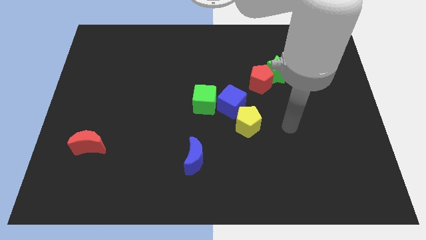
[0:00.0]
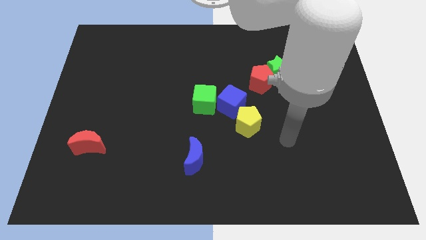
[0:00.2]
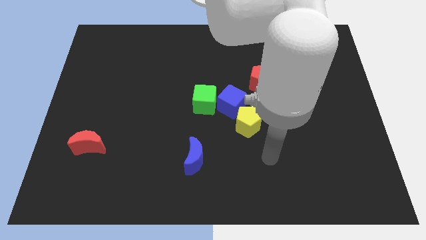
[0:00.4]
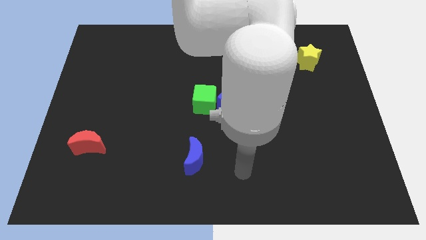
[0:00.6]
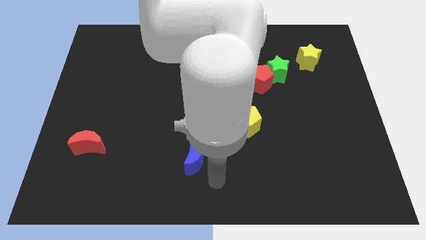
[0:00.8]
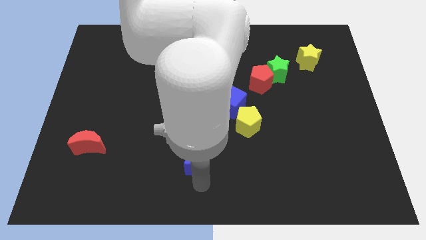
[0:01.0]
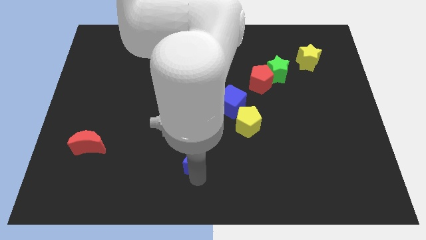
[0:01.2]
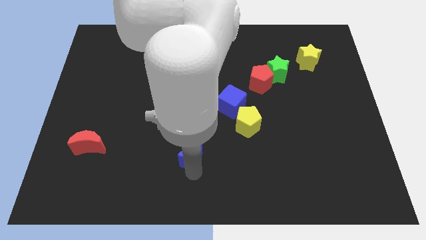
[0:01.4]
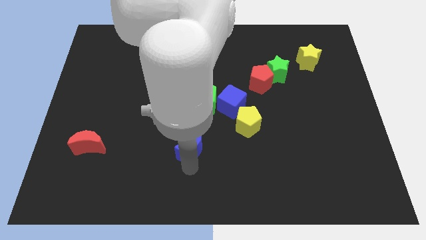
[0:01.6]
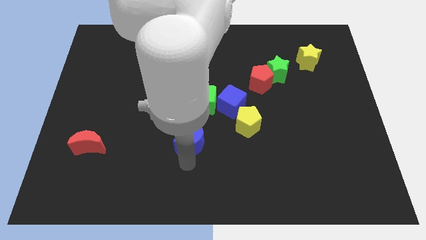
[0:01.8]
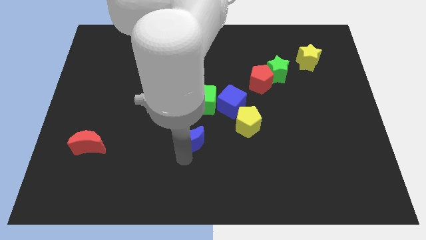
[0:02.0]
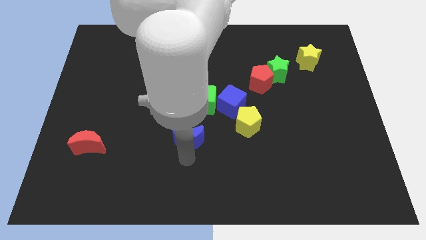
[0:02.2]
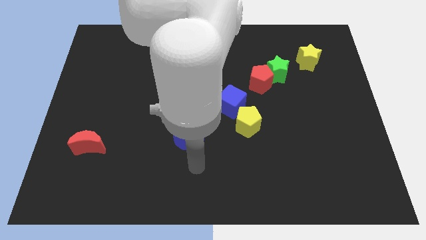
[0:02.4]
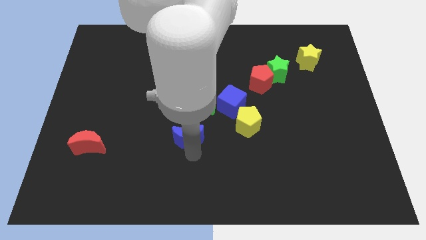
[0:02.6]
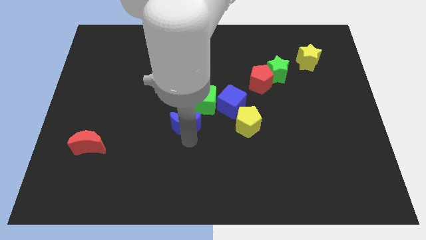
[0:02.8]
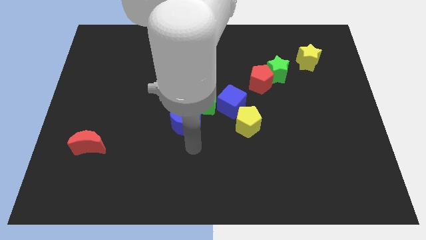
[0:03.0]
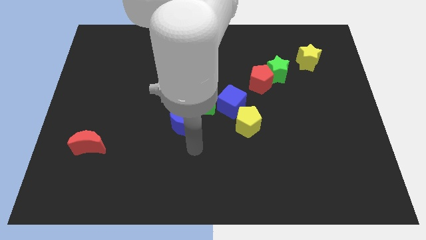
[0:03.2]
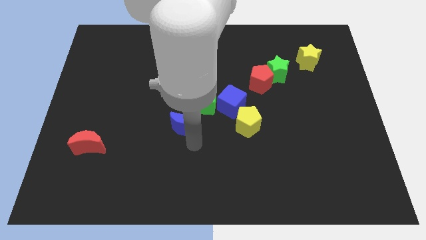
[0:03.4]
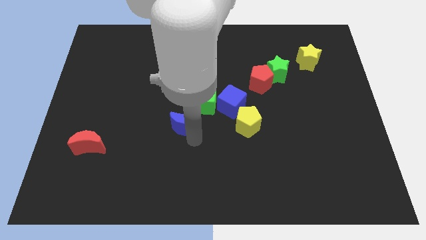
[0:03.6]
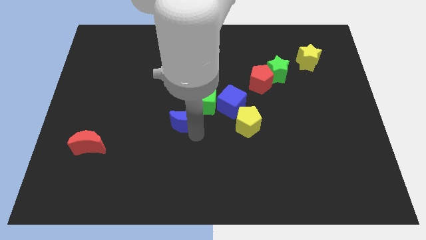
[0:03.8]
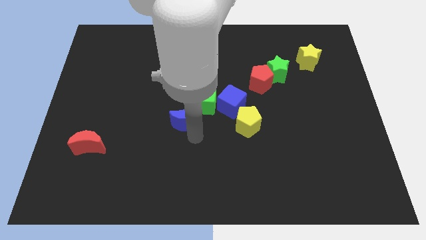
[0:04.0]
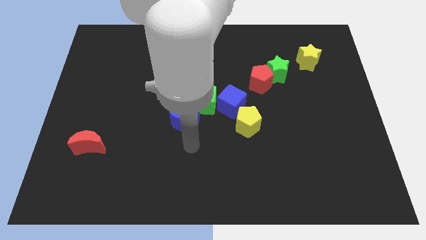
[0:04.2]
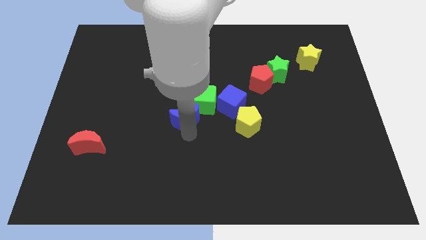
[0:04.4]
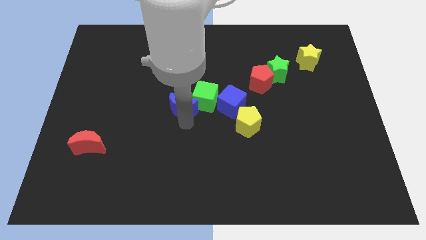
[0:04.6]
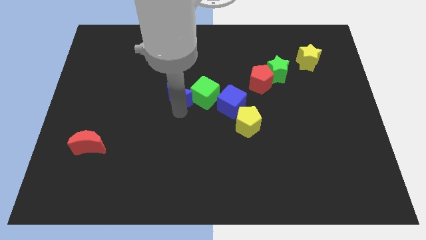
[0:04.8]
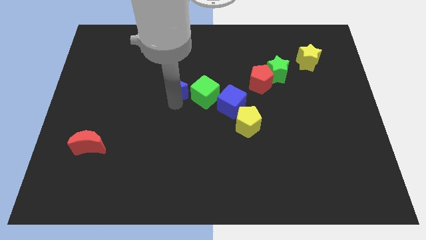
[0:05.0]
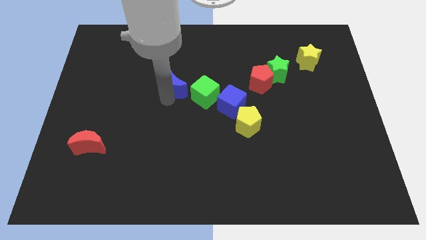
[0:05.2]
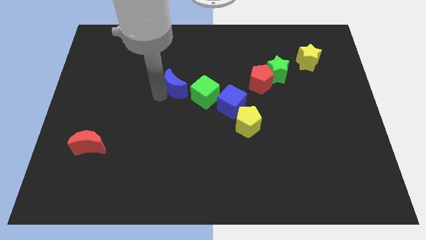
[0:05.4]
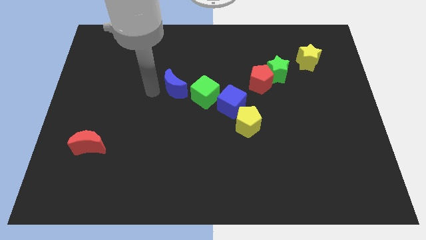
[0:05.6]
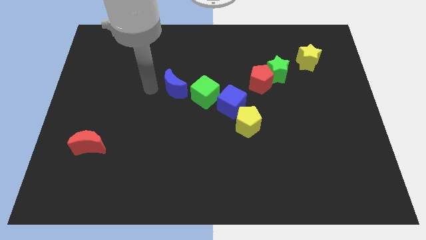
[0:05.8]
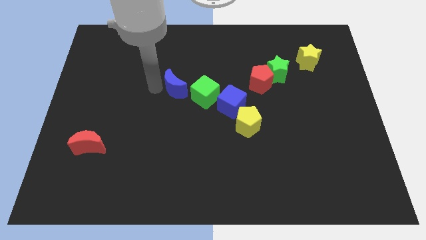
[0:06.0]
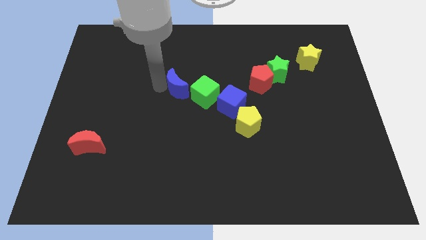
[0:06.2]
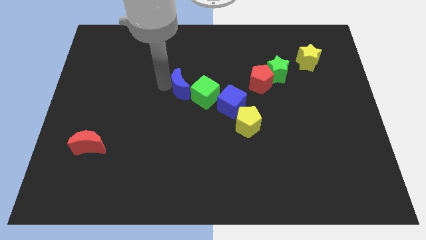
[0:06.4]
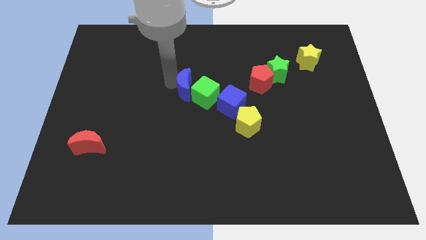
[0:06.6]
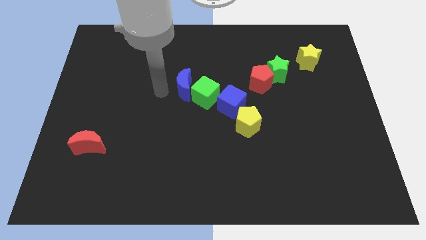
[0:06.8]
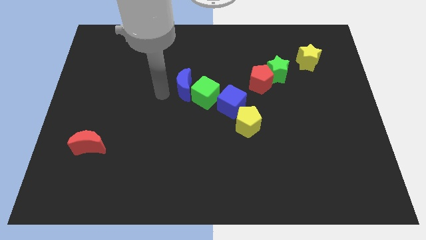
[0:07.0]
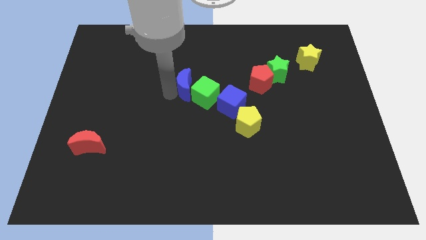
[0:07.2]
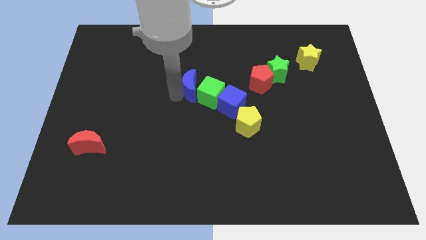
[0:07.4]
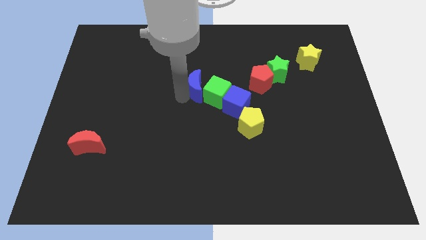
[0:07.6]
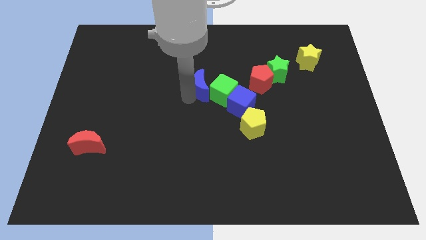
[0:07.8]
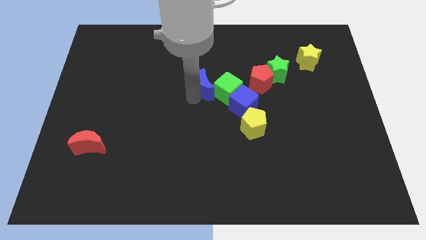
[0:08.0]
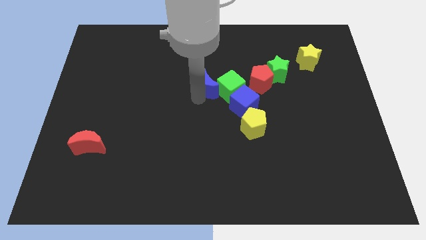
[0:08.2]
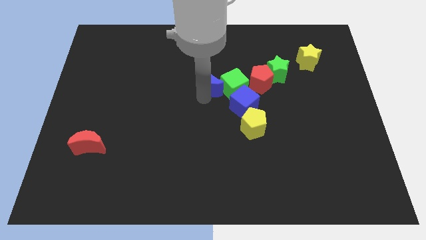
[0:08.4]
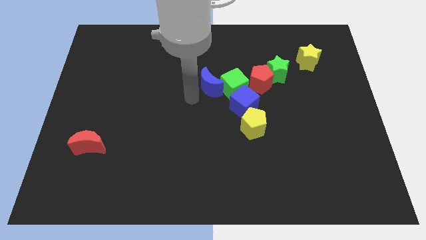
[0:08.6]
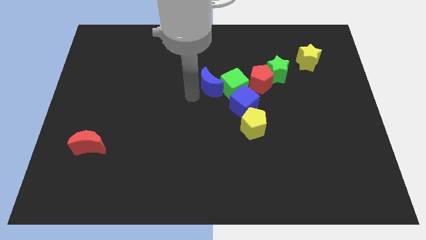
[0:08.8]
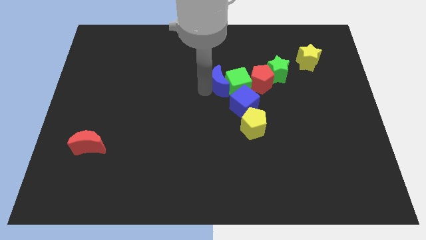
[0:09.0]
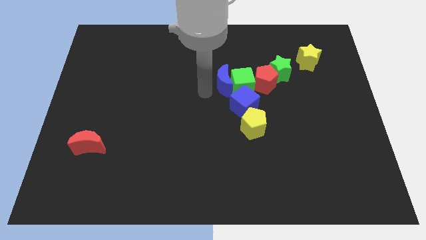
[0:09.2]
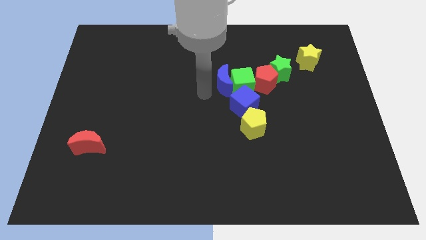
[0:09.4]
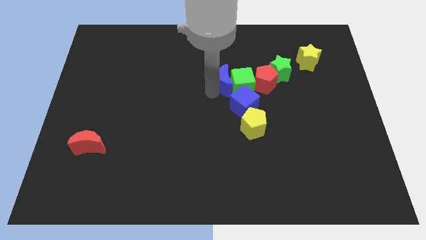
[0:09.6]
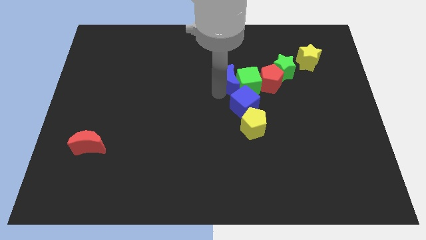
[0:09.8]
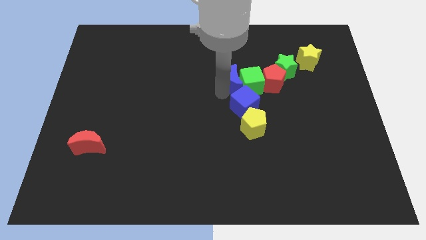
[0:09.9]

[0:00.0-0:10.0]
push the blue moon to the top of the yellow pentagon

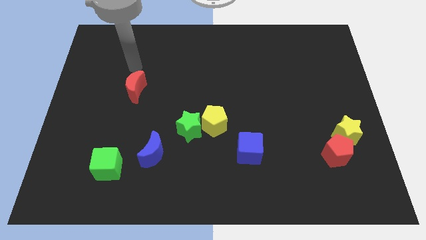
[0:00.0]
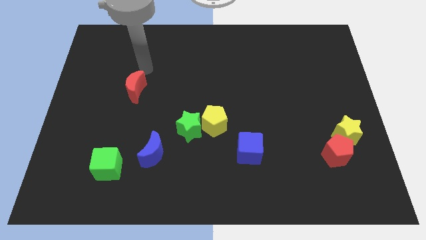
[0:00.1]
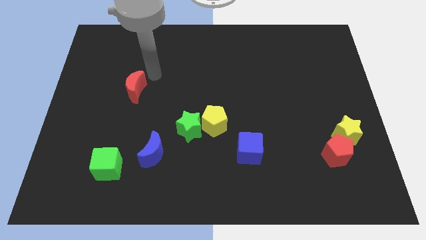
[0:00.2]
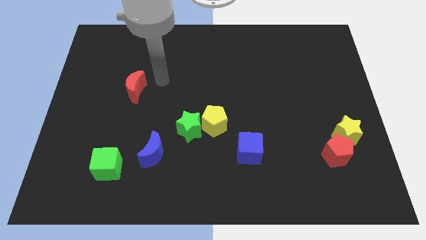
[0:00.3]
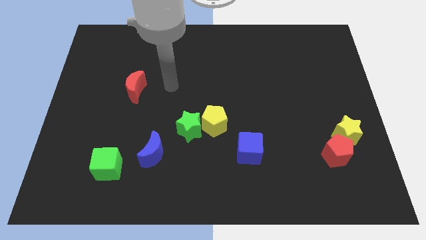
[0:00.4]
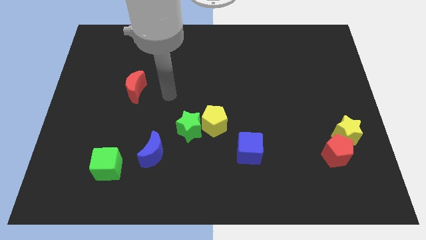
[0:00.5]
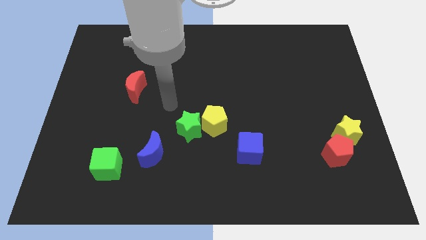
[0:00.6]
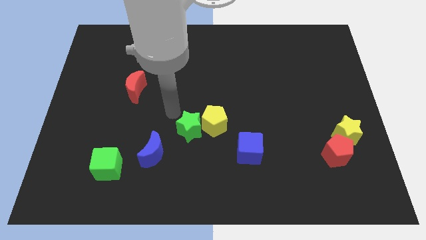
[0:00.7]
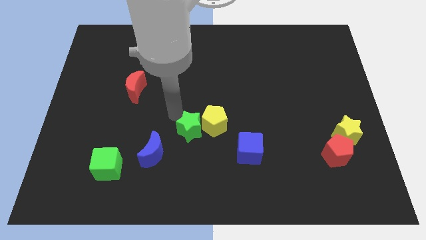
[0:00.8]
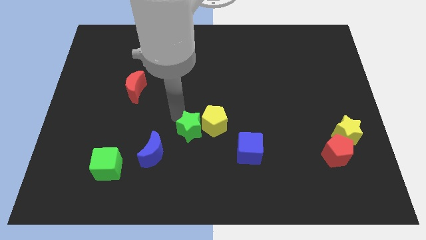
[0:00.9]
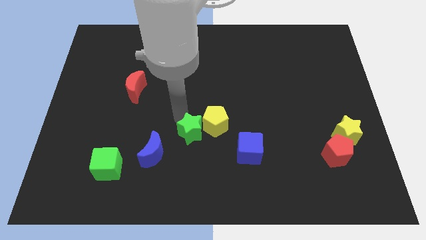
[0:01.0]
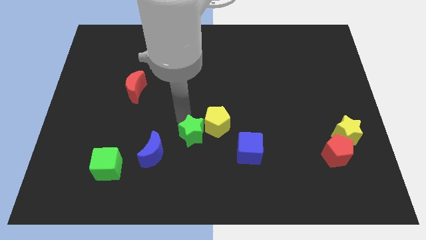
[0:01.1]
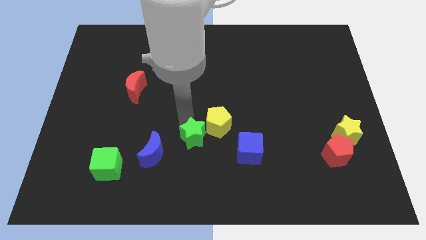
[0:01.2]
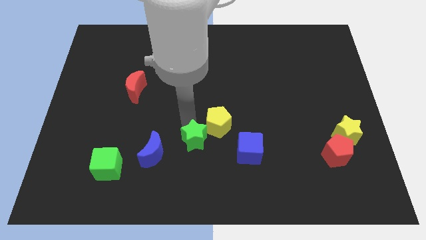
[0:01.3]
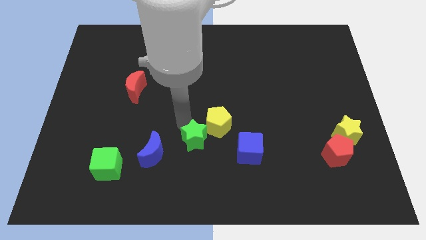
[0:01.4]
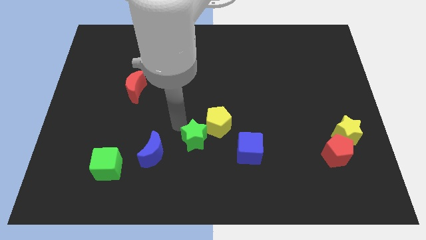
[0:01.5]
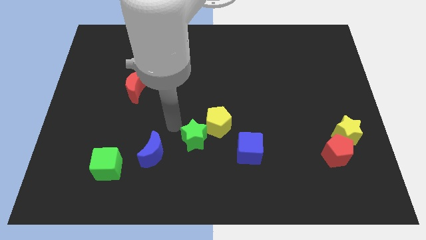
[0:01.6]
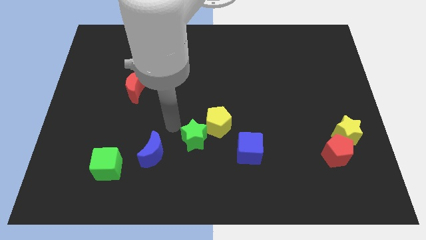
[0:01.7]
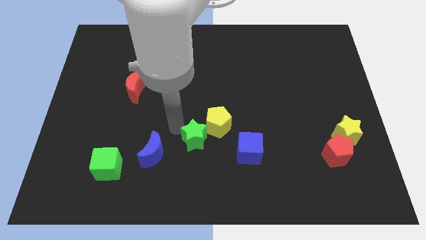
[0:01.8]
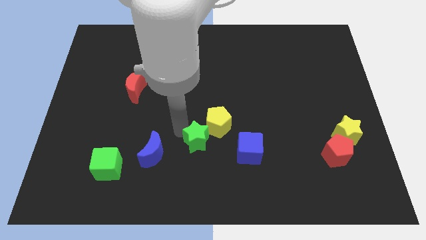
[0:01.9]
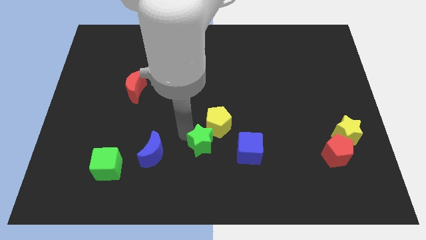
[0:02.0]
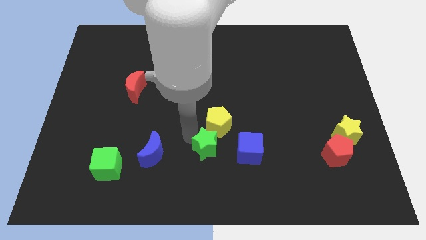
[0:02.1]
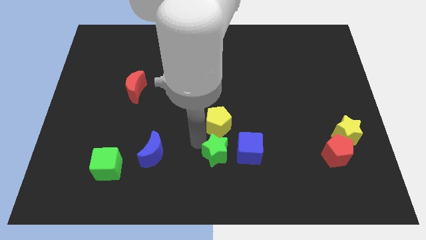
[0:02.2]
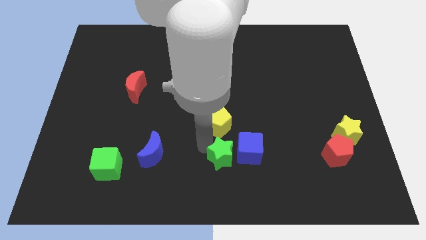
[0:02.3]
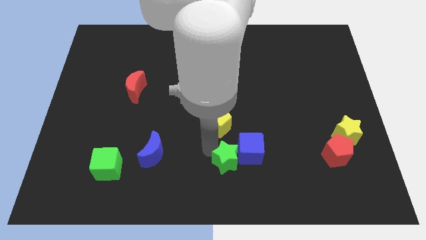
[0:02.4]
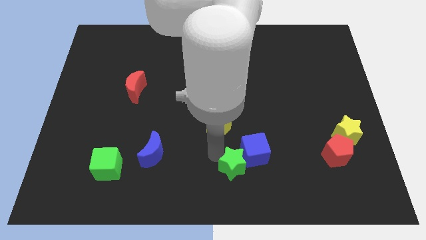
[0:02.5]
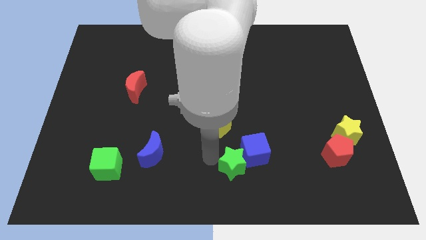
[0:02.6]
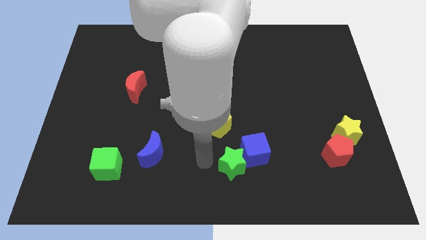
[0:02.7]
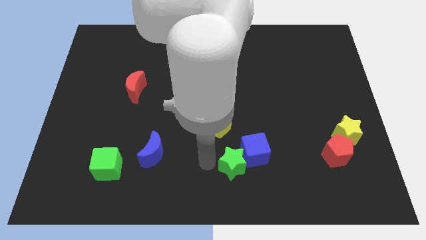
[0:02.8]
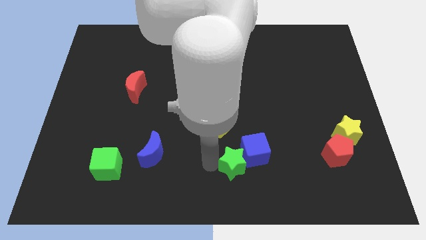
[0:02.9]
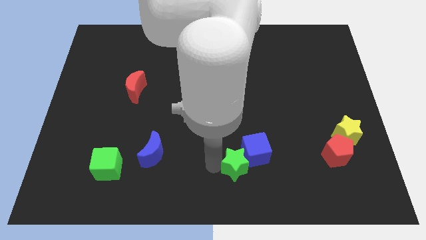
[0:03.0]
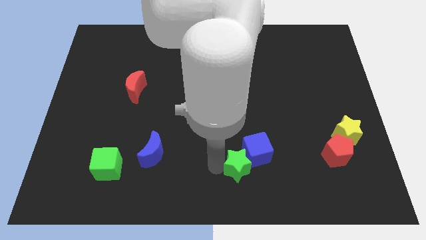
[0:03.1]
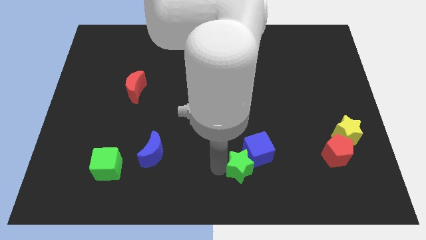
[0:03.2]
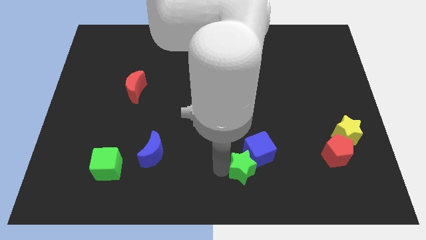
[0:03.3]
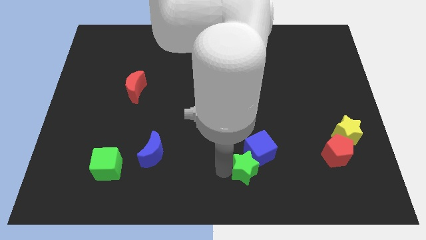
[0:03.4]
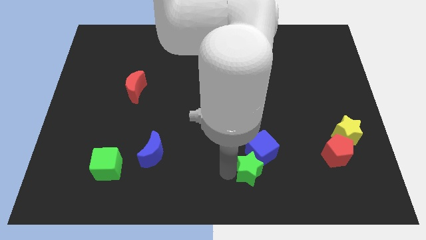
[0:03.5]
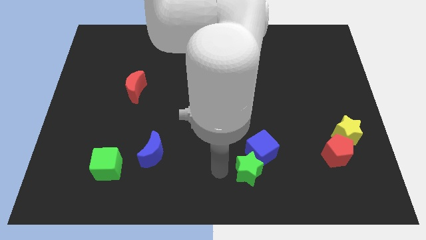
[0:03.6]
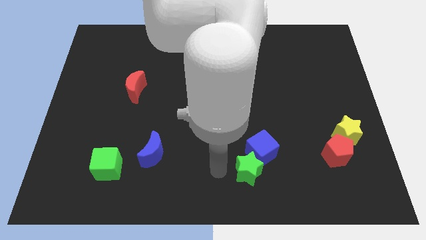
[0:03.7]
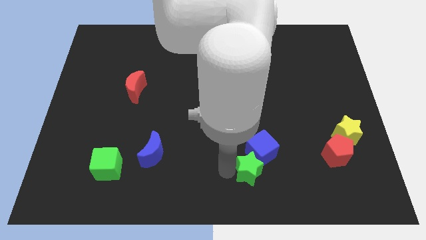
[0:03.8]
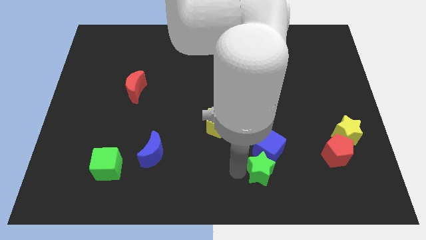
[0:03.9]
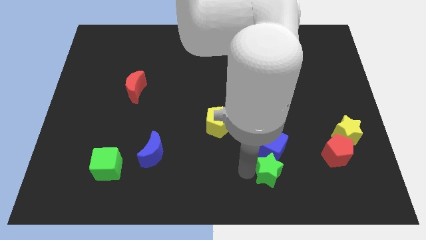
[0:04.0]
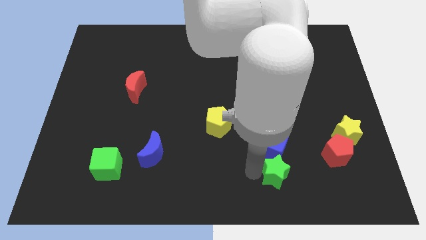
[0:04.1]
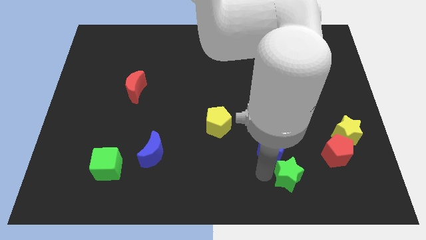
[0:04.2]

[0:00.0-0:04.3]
slide the green star to the bottom left side of the red pentagon
